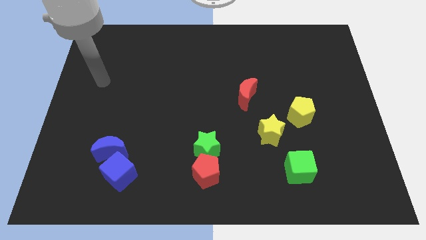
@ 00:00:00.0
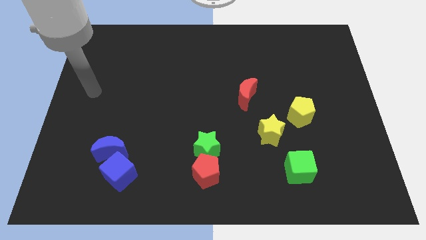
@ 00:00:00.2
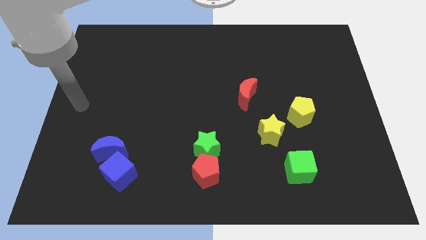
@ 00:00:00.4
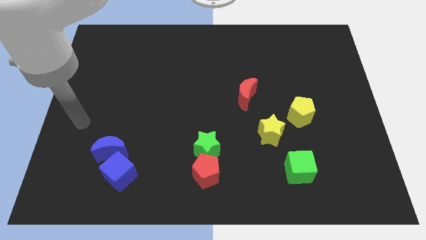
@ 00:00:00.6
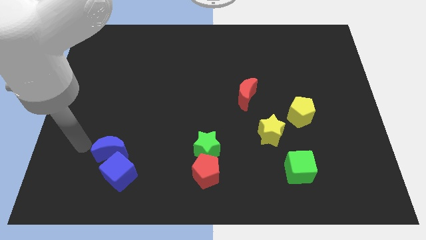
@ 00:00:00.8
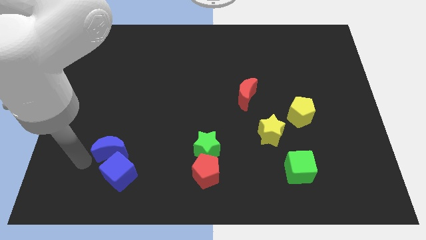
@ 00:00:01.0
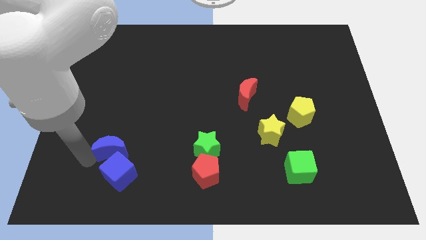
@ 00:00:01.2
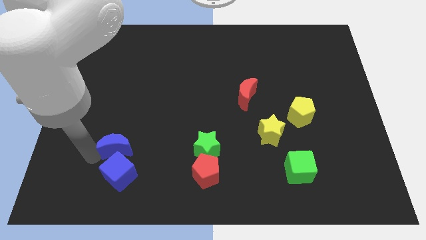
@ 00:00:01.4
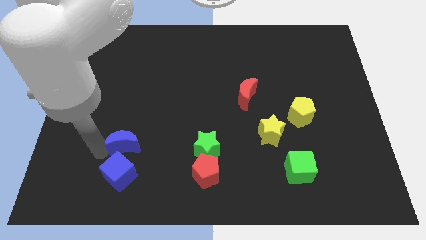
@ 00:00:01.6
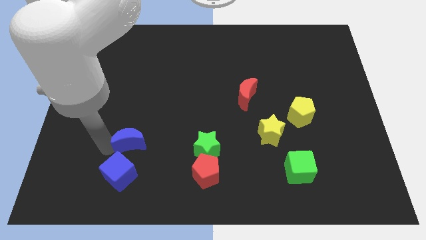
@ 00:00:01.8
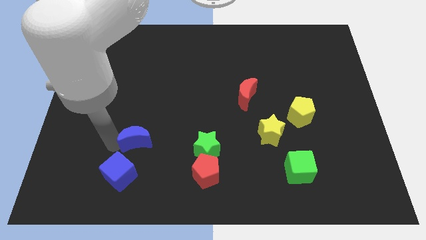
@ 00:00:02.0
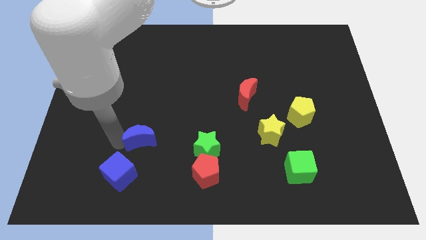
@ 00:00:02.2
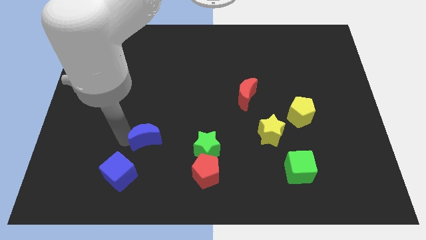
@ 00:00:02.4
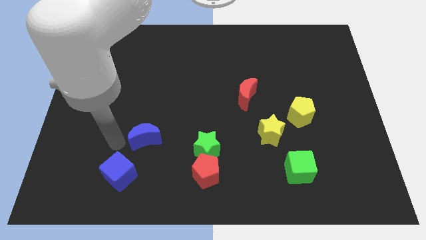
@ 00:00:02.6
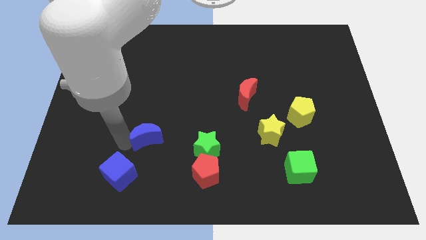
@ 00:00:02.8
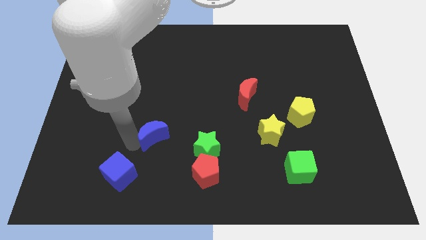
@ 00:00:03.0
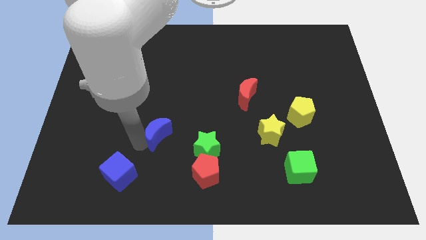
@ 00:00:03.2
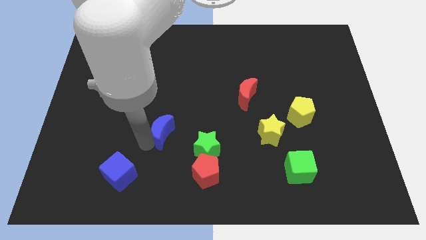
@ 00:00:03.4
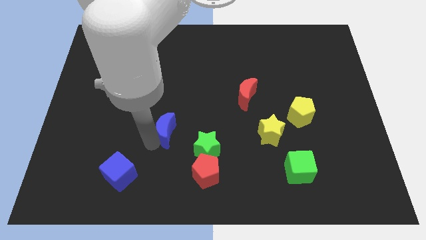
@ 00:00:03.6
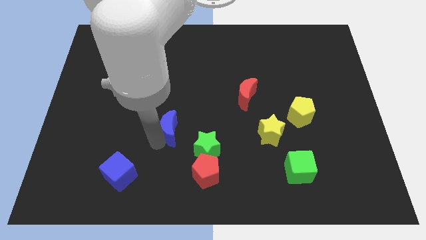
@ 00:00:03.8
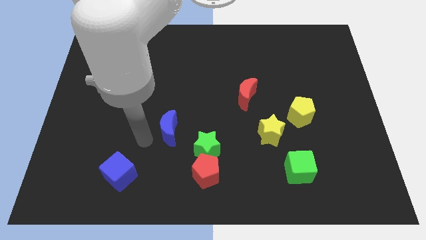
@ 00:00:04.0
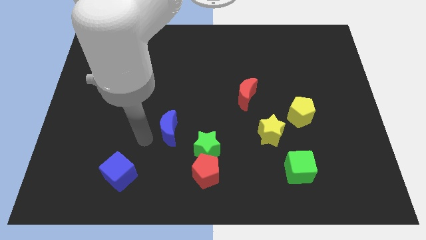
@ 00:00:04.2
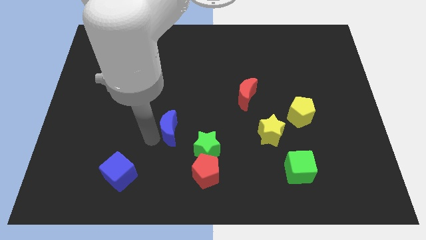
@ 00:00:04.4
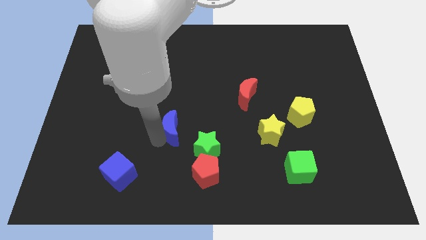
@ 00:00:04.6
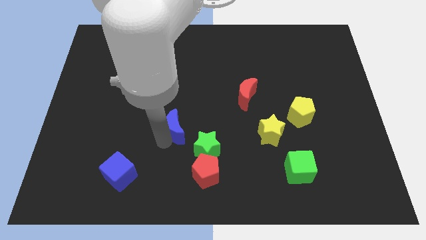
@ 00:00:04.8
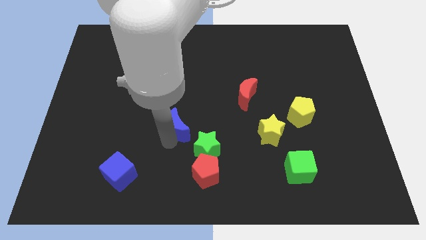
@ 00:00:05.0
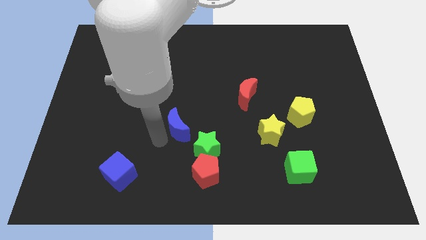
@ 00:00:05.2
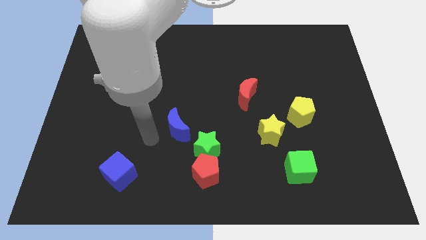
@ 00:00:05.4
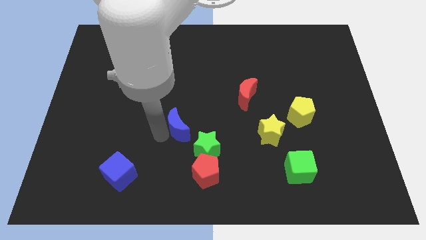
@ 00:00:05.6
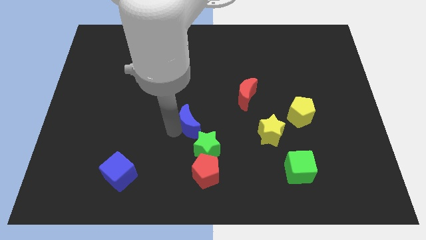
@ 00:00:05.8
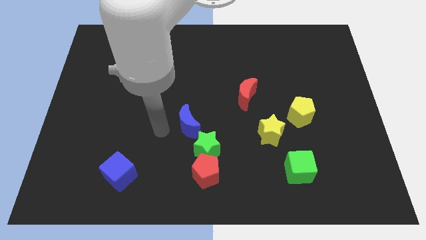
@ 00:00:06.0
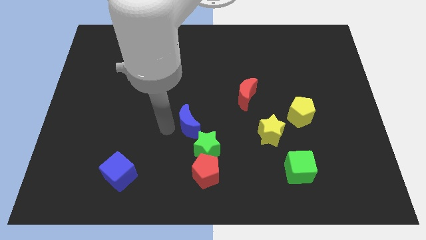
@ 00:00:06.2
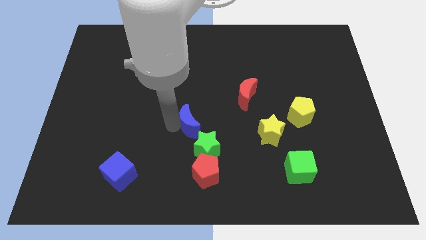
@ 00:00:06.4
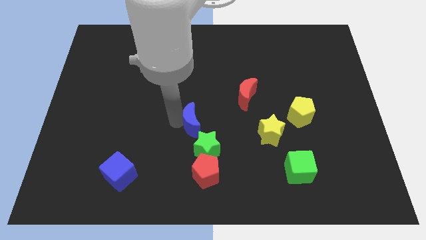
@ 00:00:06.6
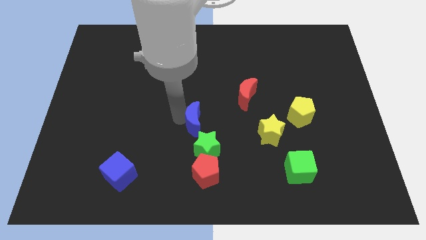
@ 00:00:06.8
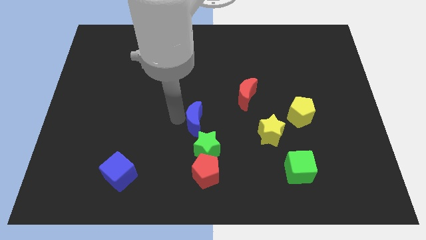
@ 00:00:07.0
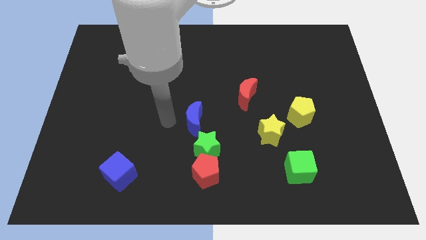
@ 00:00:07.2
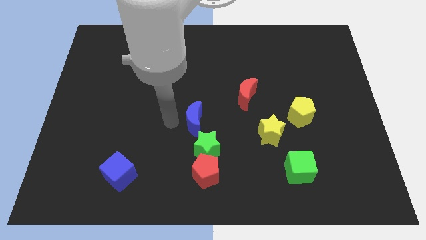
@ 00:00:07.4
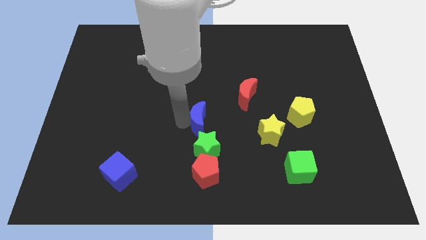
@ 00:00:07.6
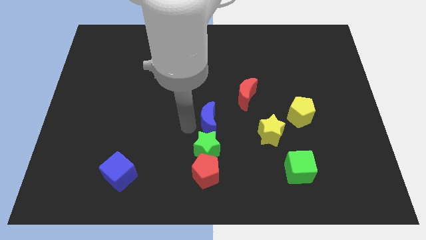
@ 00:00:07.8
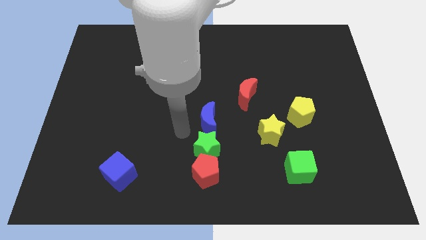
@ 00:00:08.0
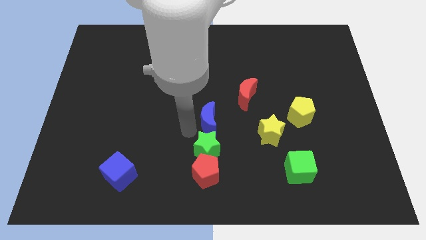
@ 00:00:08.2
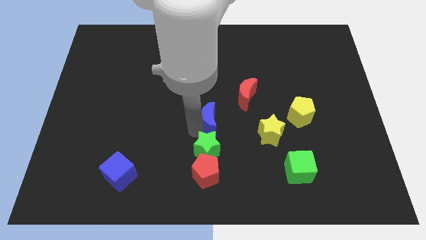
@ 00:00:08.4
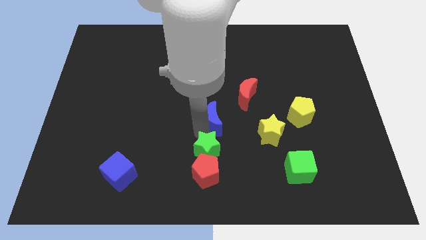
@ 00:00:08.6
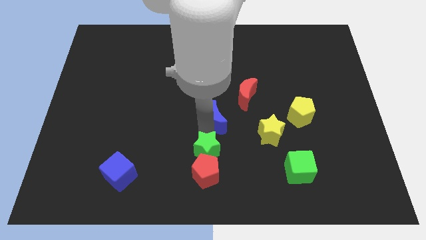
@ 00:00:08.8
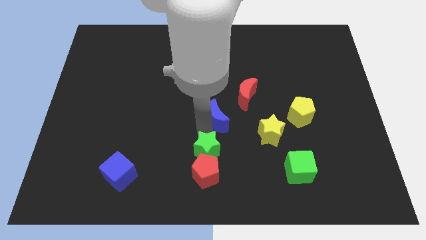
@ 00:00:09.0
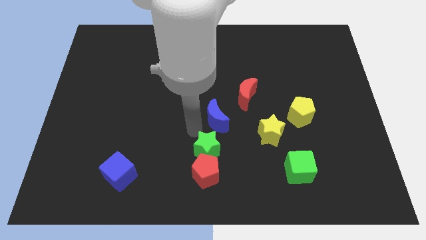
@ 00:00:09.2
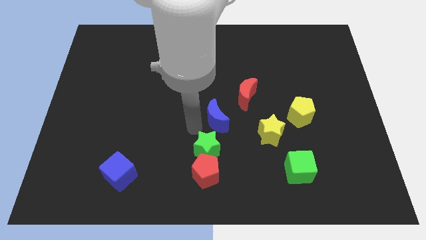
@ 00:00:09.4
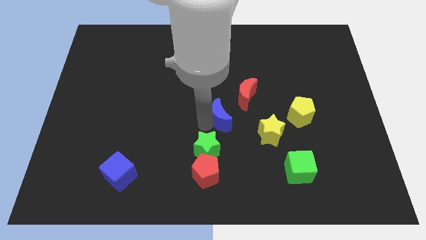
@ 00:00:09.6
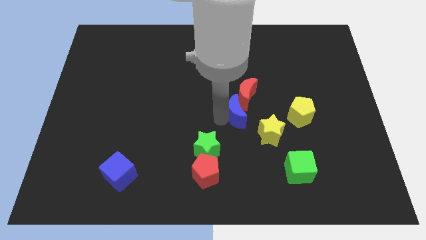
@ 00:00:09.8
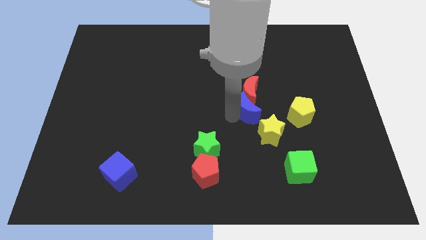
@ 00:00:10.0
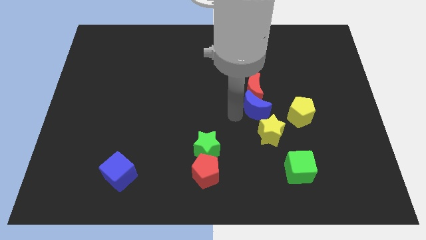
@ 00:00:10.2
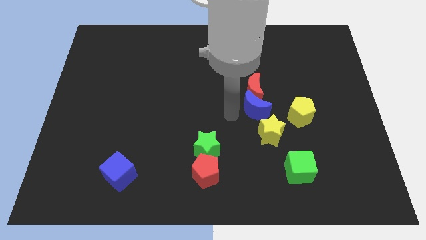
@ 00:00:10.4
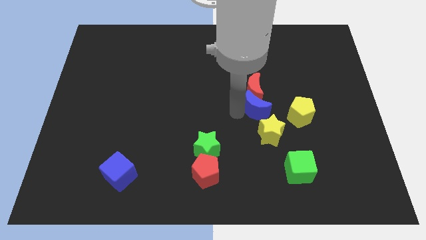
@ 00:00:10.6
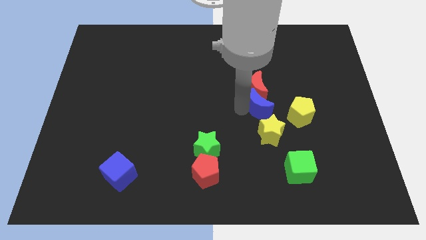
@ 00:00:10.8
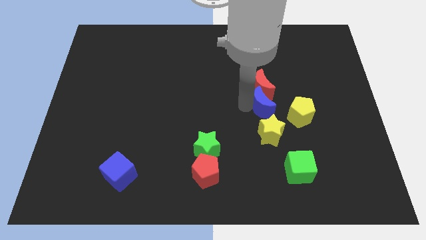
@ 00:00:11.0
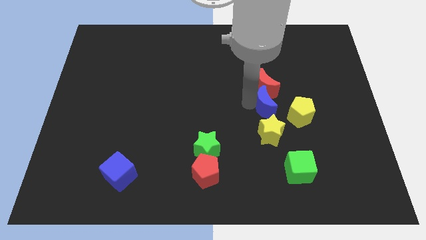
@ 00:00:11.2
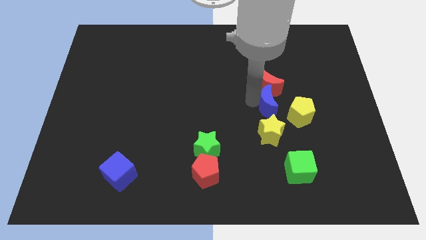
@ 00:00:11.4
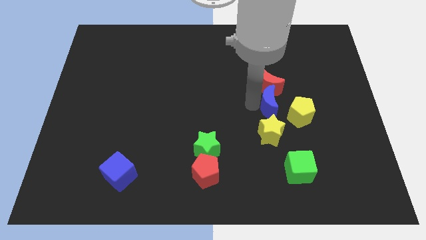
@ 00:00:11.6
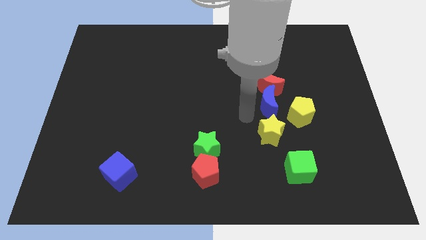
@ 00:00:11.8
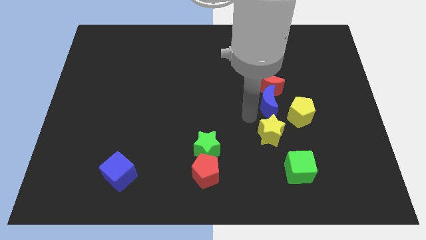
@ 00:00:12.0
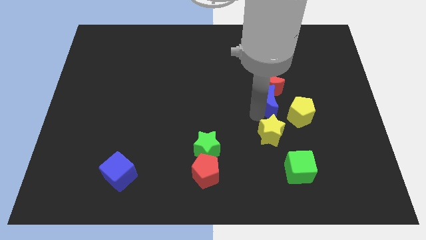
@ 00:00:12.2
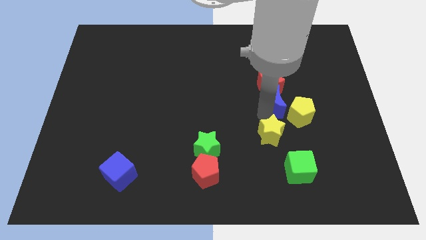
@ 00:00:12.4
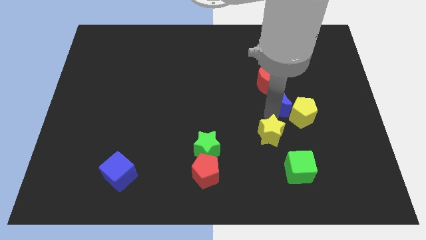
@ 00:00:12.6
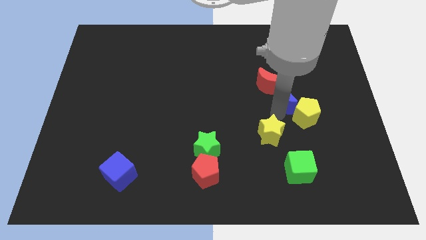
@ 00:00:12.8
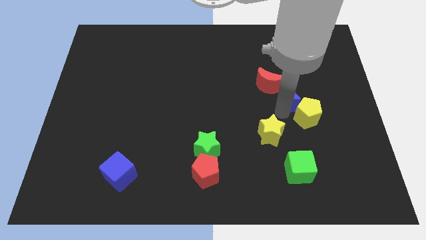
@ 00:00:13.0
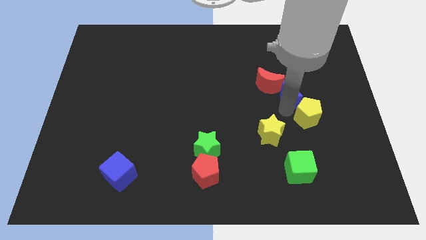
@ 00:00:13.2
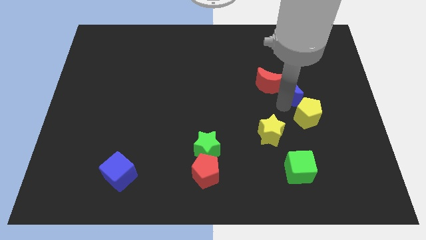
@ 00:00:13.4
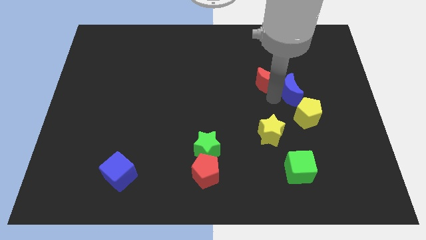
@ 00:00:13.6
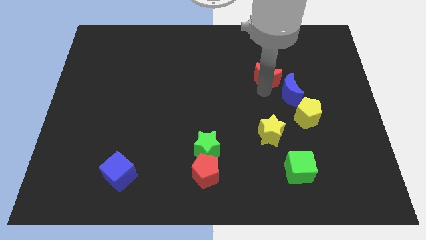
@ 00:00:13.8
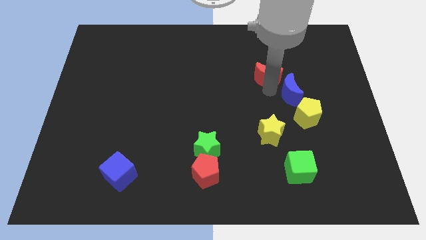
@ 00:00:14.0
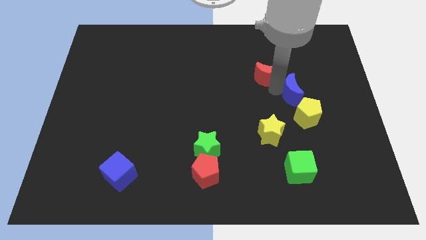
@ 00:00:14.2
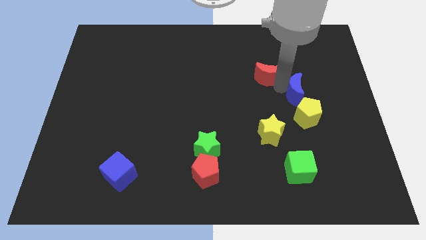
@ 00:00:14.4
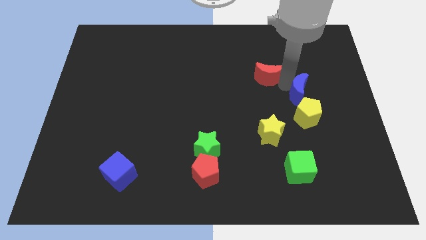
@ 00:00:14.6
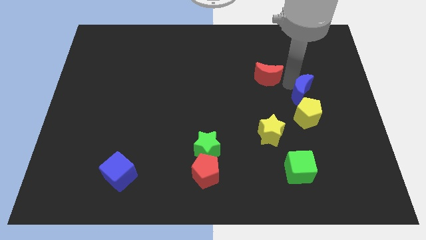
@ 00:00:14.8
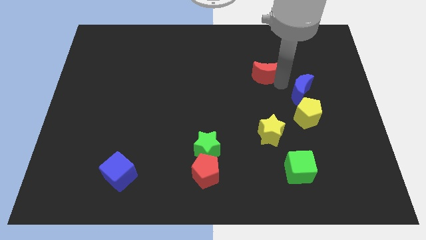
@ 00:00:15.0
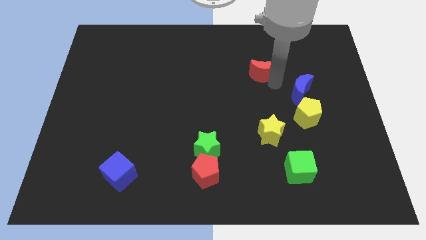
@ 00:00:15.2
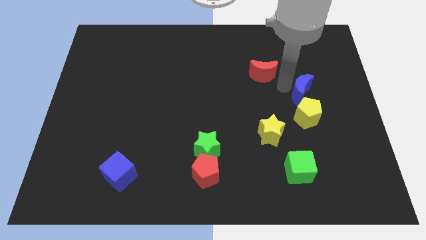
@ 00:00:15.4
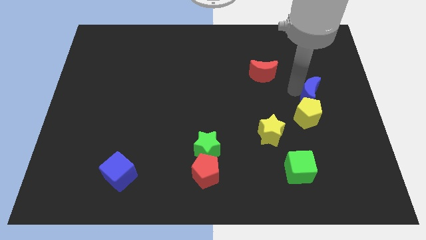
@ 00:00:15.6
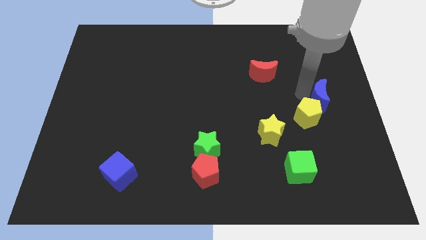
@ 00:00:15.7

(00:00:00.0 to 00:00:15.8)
push the blue moon to the right side
